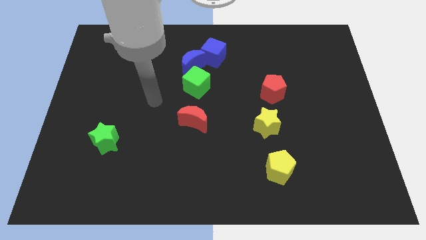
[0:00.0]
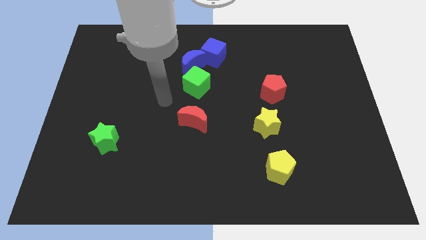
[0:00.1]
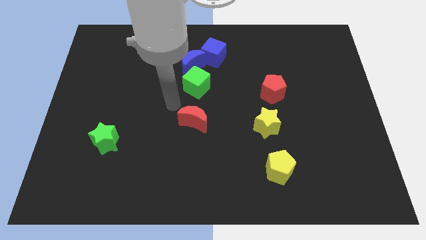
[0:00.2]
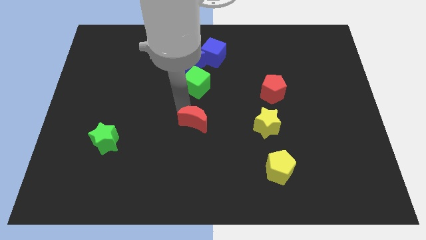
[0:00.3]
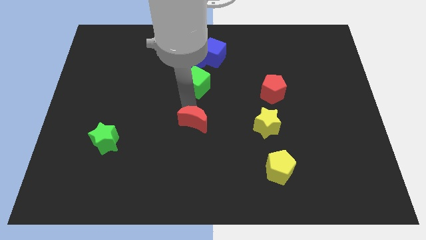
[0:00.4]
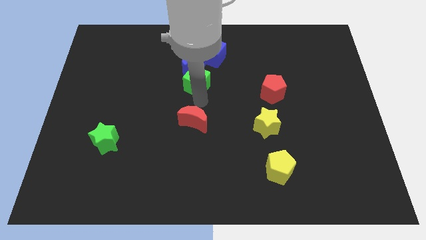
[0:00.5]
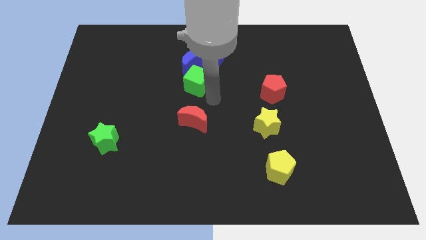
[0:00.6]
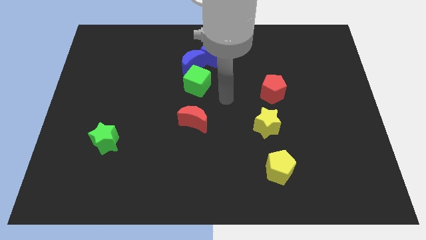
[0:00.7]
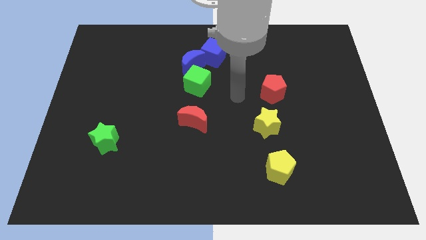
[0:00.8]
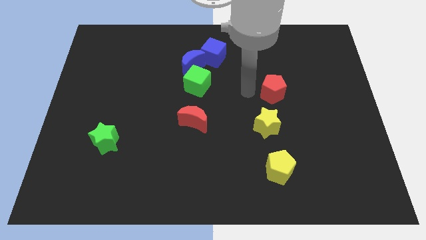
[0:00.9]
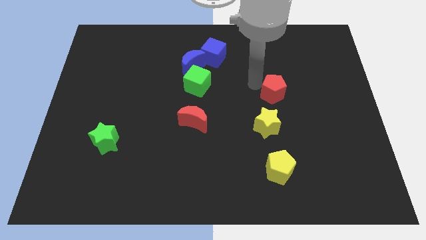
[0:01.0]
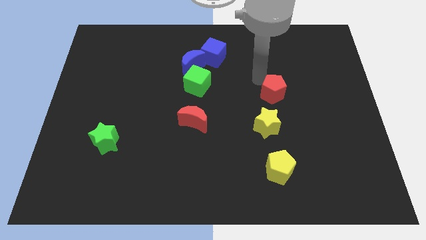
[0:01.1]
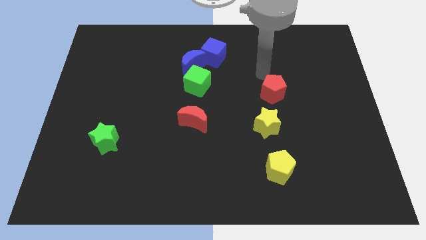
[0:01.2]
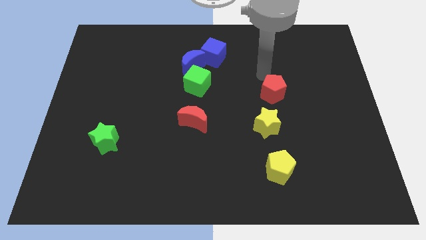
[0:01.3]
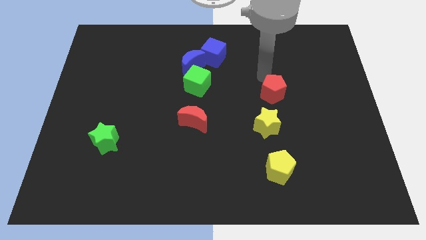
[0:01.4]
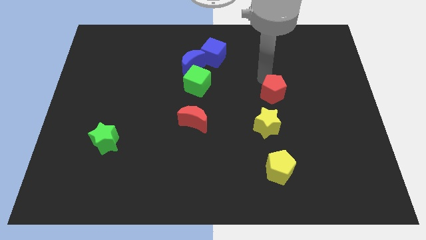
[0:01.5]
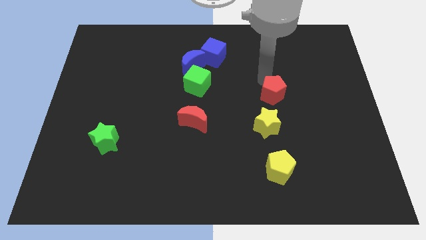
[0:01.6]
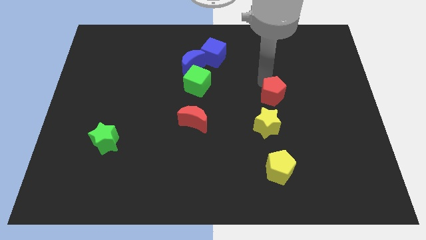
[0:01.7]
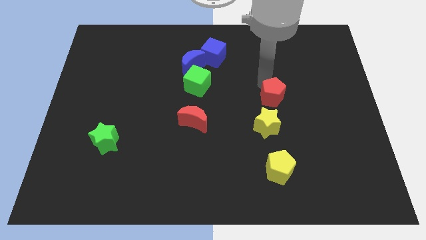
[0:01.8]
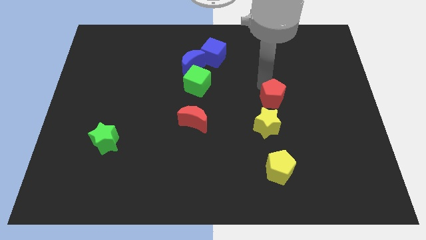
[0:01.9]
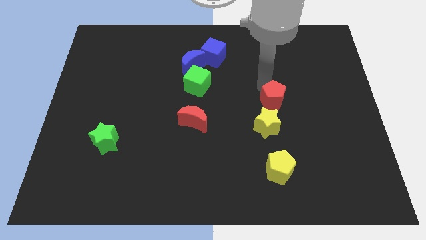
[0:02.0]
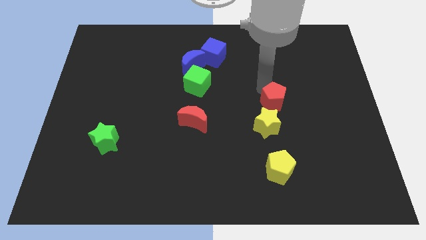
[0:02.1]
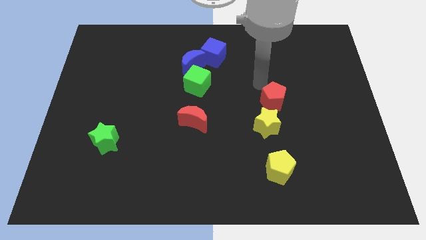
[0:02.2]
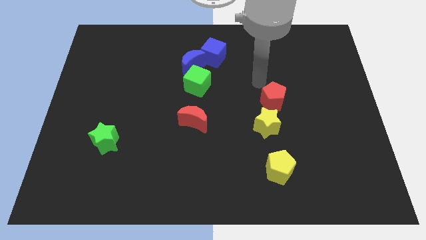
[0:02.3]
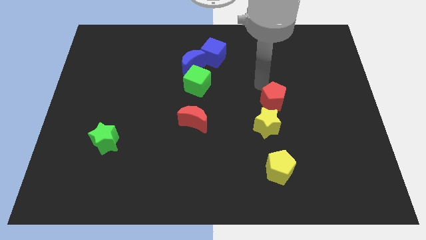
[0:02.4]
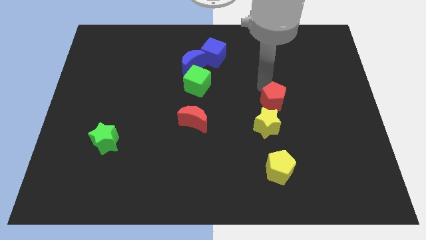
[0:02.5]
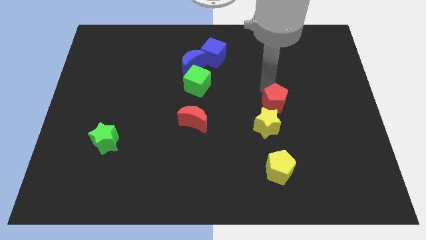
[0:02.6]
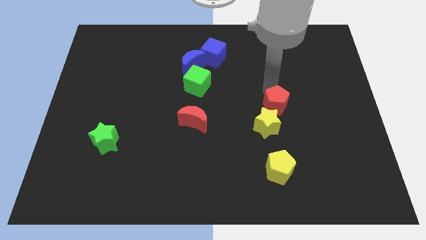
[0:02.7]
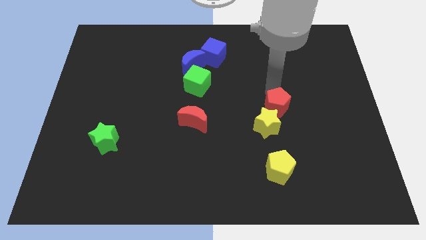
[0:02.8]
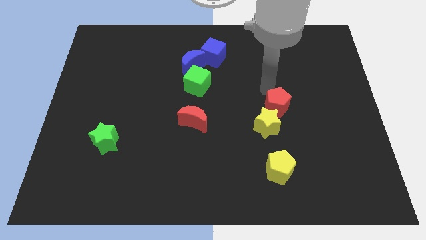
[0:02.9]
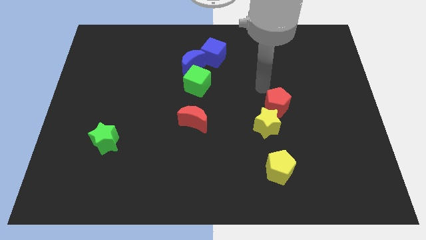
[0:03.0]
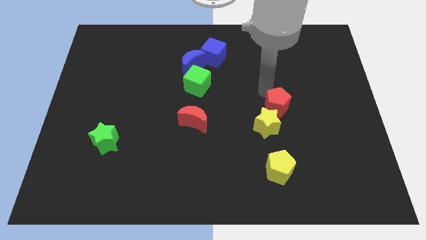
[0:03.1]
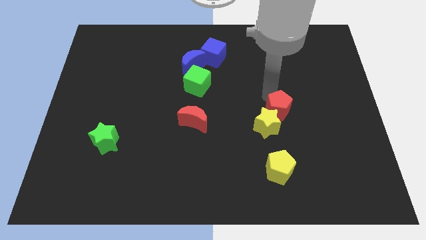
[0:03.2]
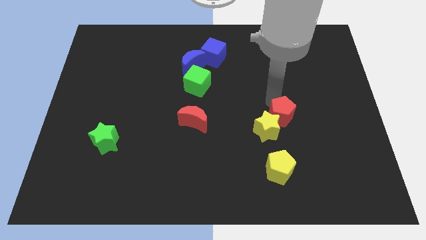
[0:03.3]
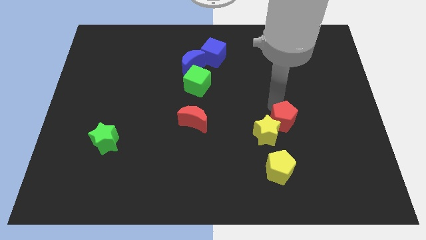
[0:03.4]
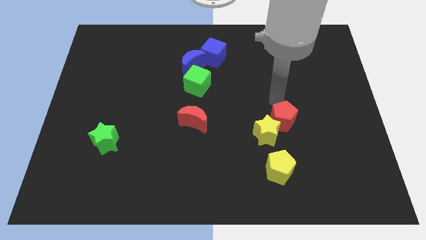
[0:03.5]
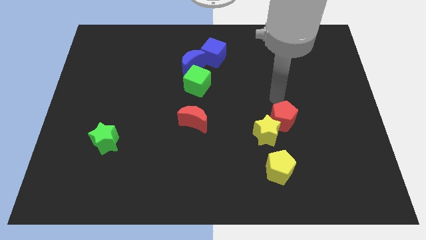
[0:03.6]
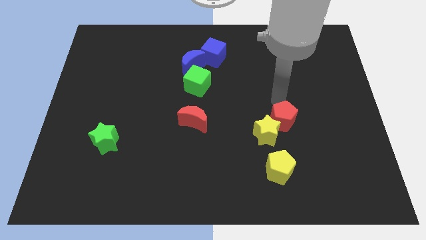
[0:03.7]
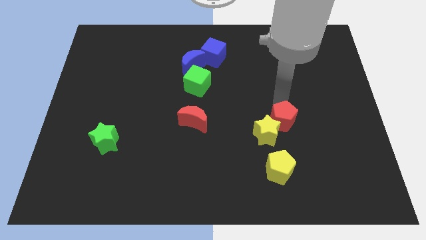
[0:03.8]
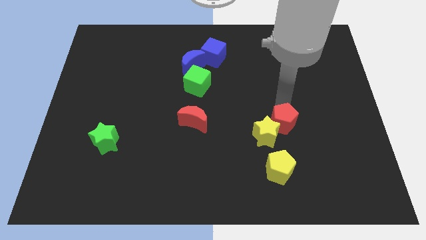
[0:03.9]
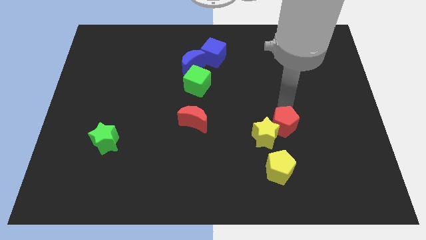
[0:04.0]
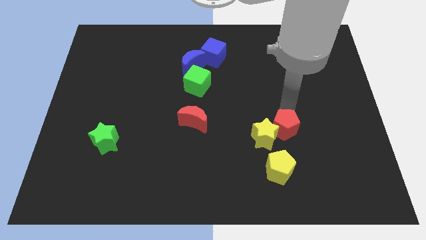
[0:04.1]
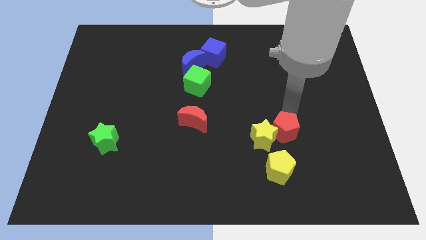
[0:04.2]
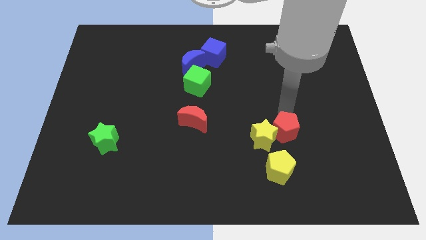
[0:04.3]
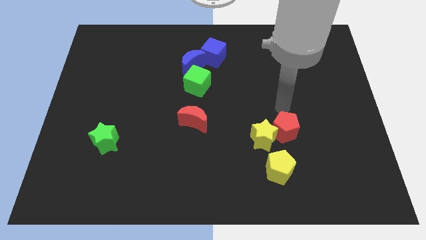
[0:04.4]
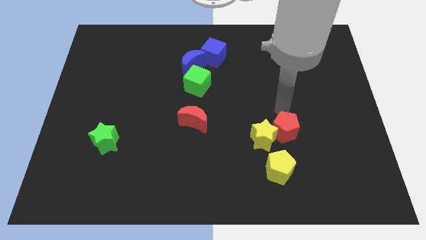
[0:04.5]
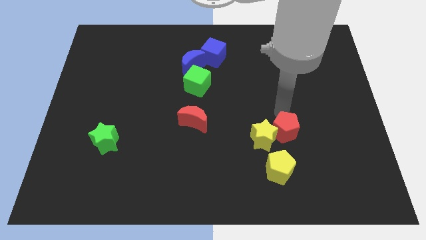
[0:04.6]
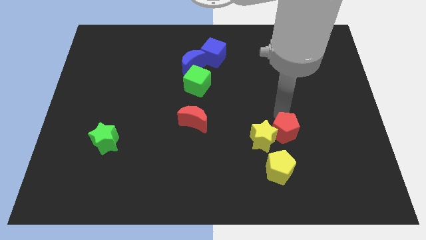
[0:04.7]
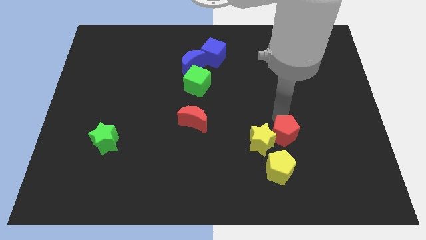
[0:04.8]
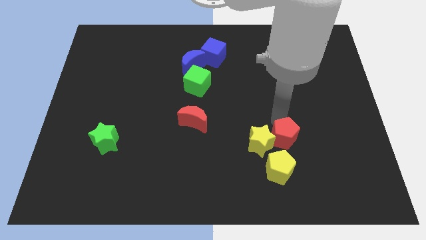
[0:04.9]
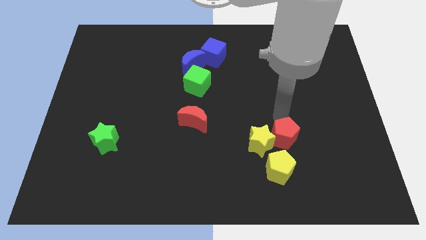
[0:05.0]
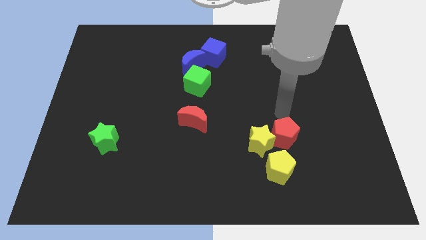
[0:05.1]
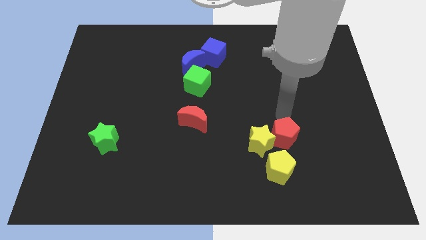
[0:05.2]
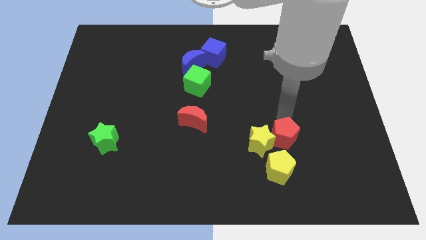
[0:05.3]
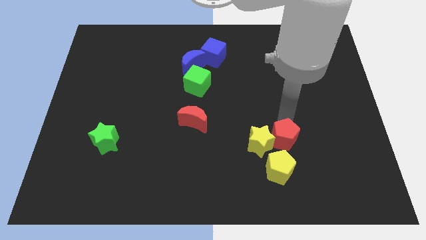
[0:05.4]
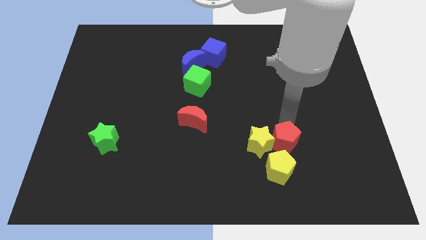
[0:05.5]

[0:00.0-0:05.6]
slide the red pentagon to the bottom right of the yellow star

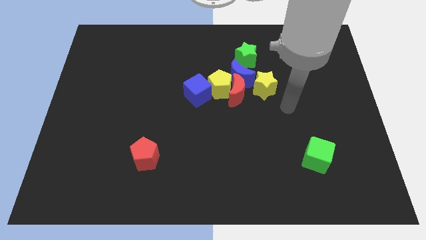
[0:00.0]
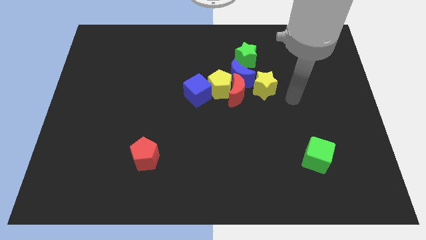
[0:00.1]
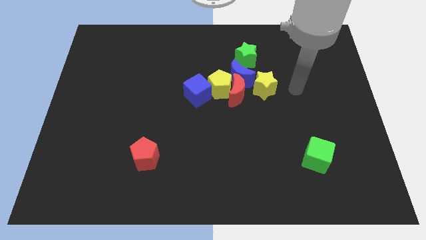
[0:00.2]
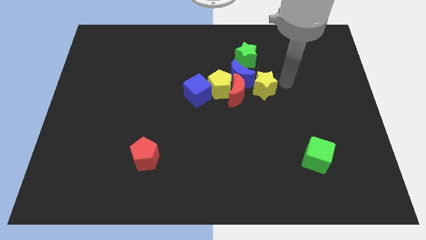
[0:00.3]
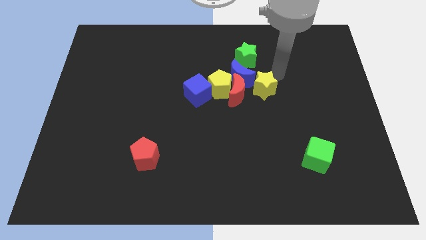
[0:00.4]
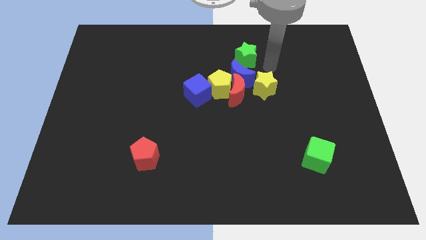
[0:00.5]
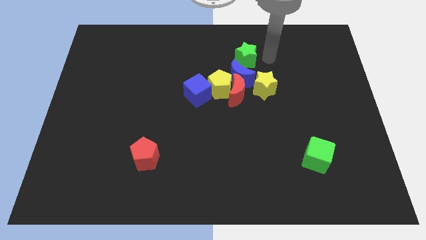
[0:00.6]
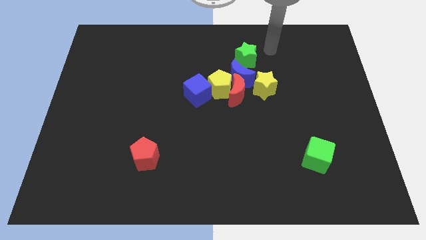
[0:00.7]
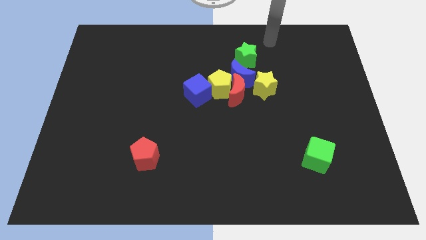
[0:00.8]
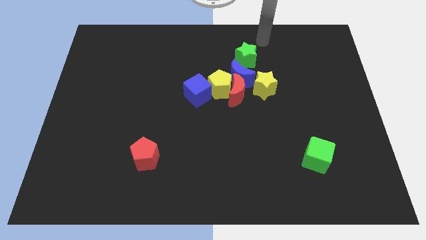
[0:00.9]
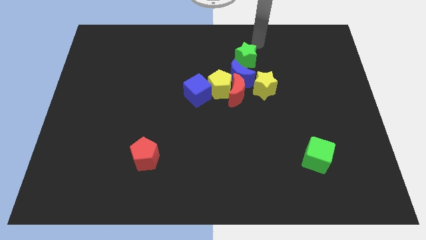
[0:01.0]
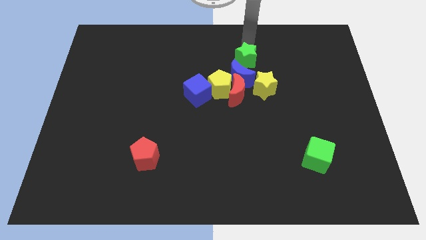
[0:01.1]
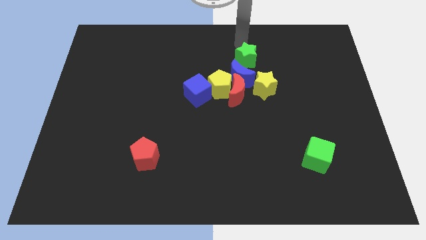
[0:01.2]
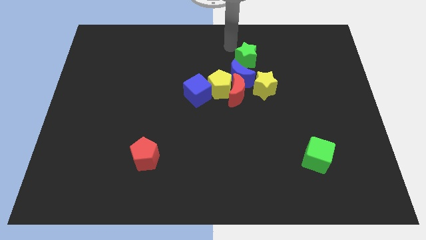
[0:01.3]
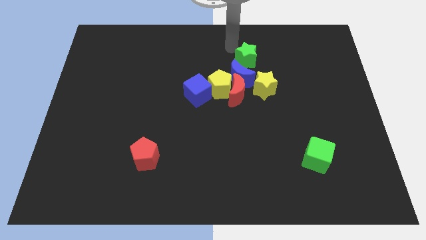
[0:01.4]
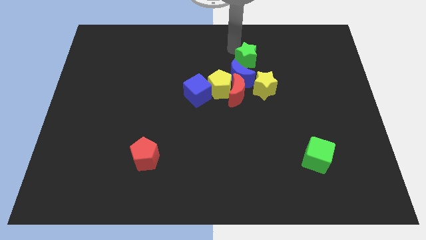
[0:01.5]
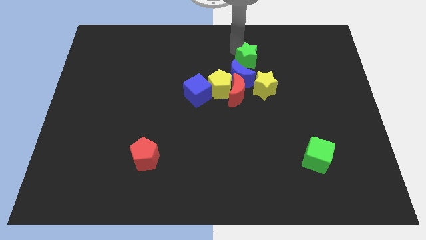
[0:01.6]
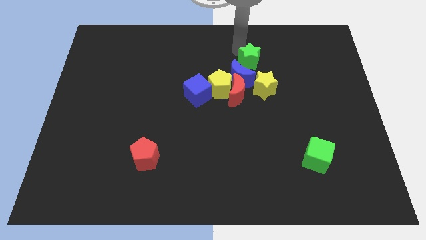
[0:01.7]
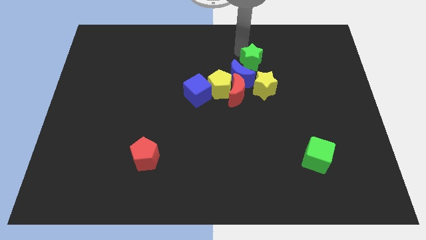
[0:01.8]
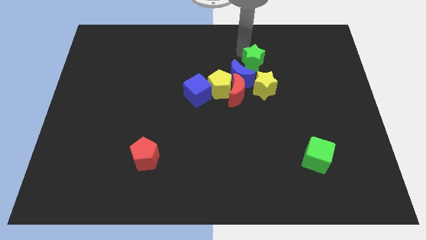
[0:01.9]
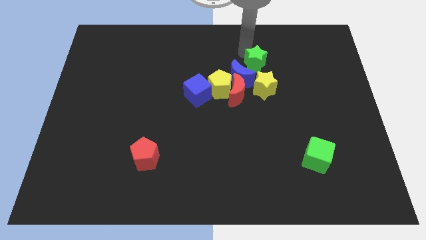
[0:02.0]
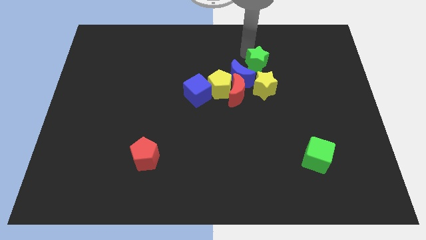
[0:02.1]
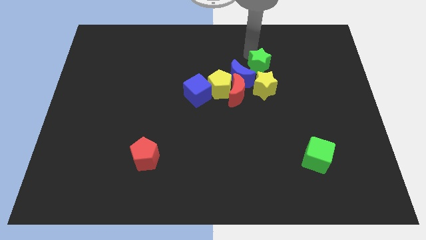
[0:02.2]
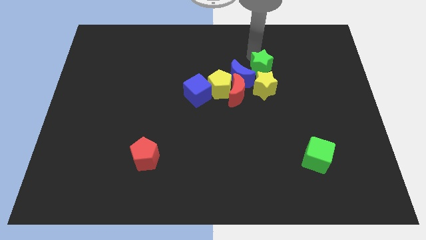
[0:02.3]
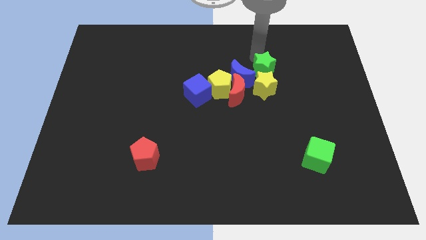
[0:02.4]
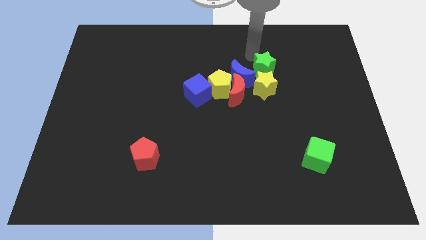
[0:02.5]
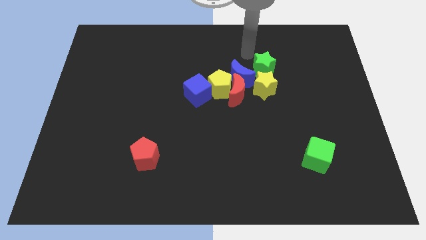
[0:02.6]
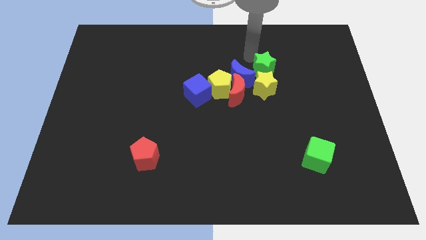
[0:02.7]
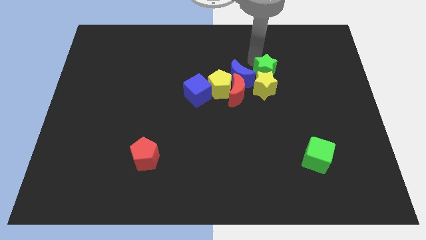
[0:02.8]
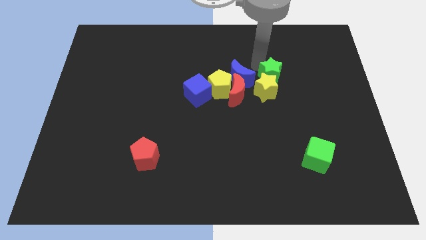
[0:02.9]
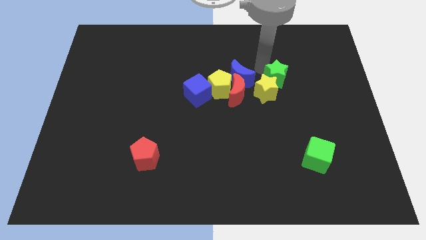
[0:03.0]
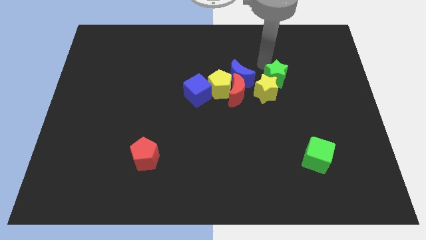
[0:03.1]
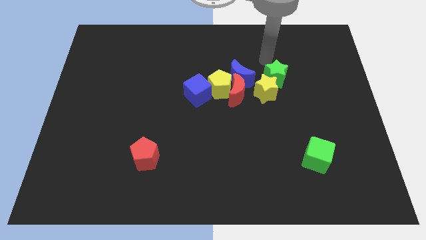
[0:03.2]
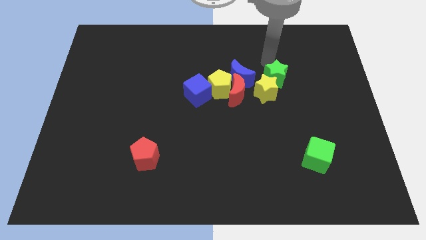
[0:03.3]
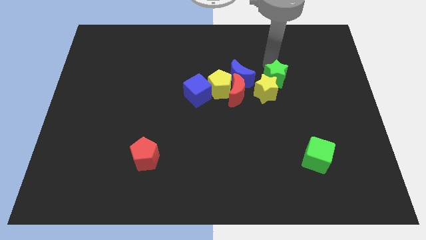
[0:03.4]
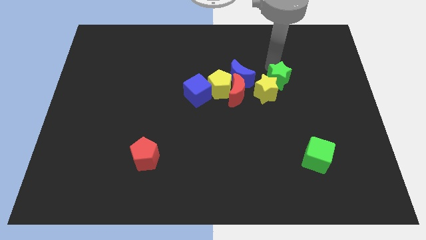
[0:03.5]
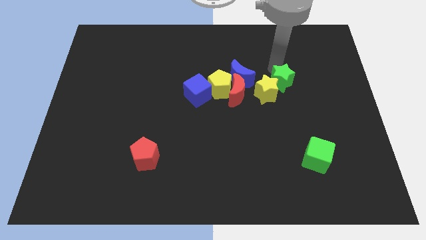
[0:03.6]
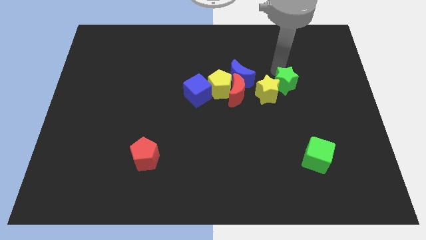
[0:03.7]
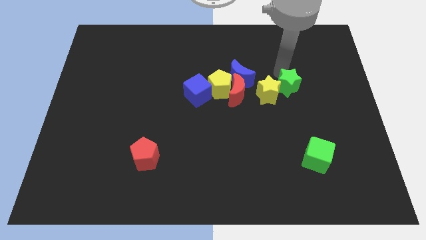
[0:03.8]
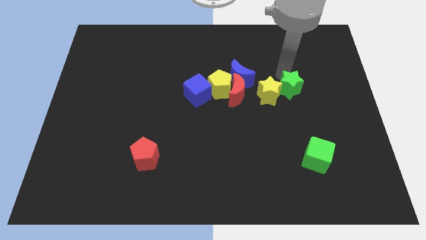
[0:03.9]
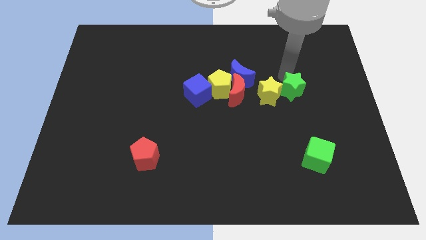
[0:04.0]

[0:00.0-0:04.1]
push the green star to the bottom right side of the yellow star
